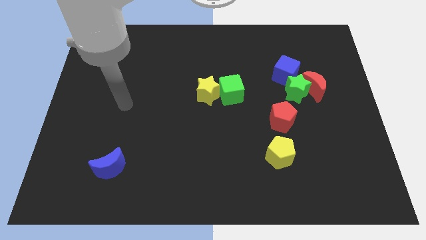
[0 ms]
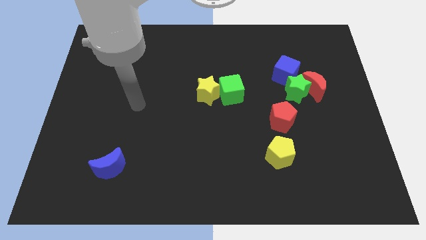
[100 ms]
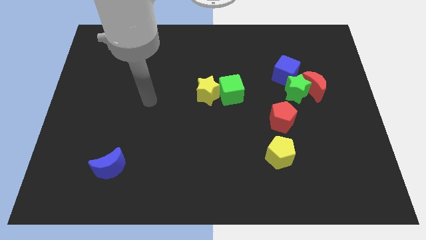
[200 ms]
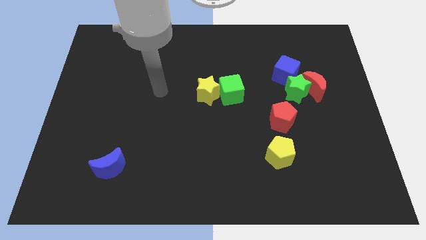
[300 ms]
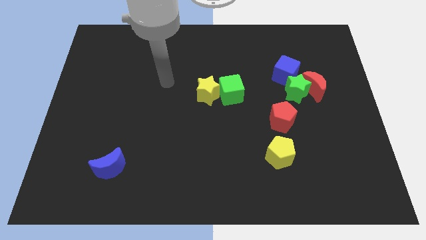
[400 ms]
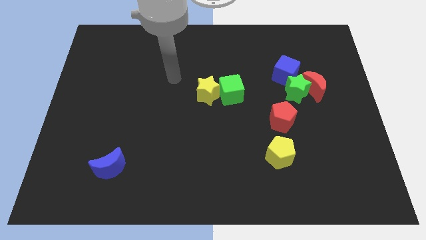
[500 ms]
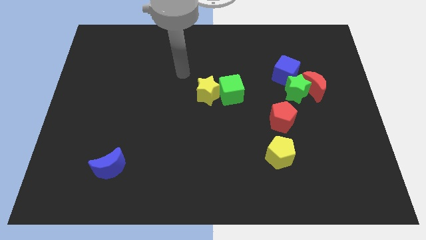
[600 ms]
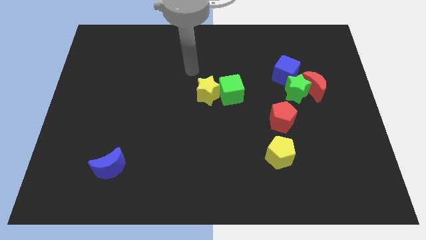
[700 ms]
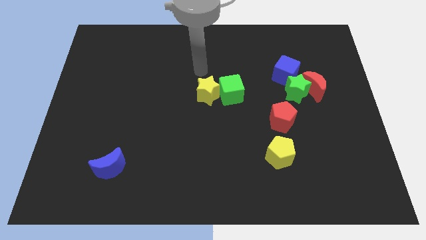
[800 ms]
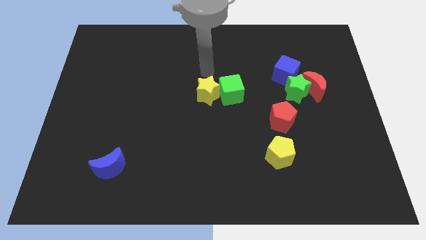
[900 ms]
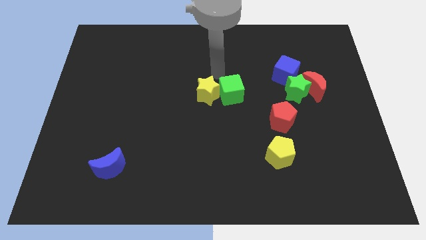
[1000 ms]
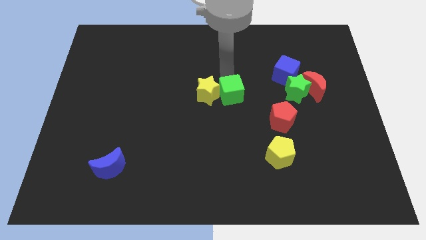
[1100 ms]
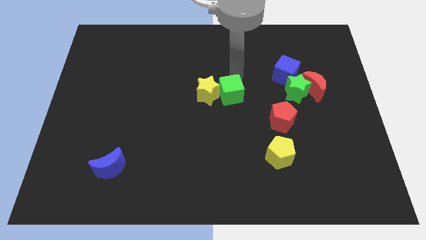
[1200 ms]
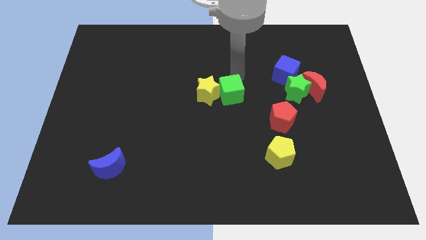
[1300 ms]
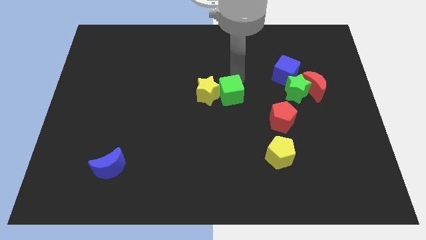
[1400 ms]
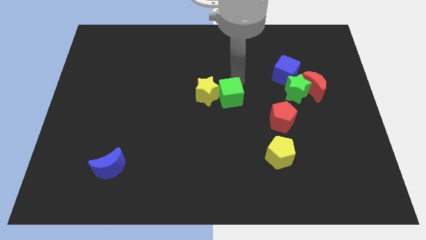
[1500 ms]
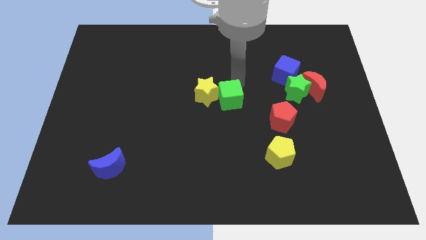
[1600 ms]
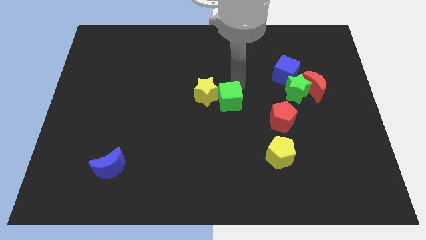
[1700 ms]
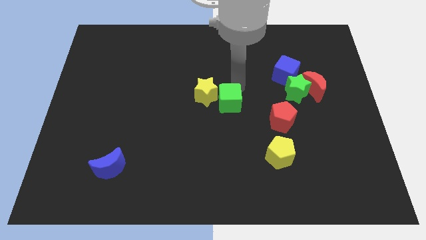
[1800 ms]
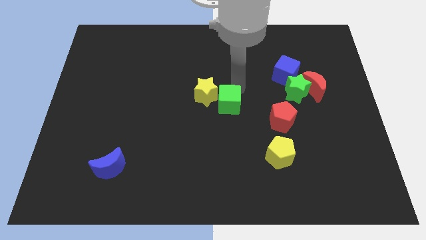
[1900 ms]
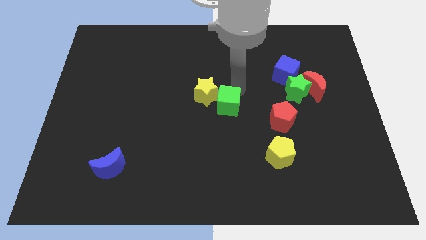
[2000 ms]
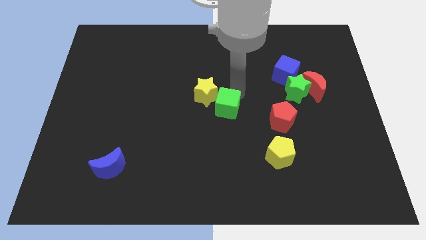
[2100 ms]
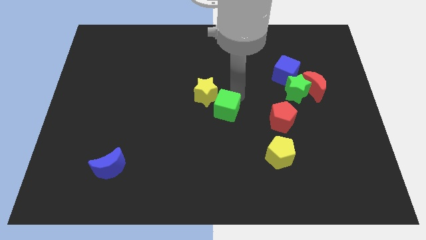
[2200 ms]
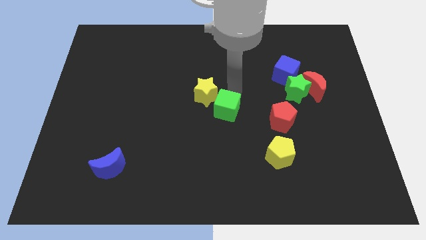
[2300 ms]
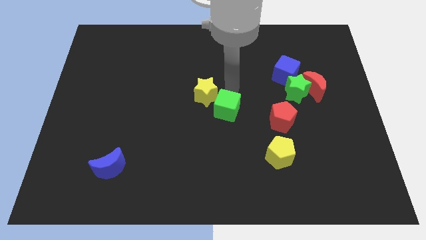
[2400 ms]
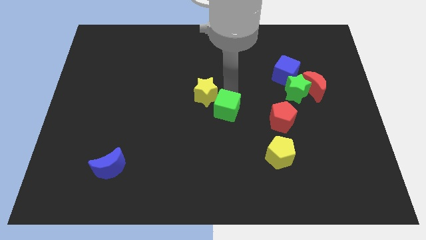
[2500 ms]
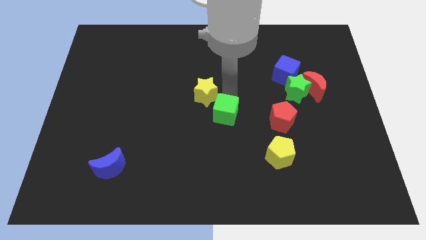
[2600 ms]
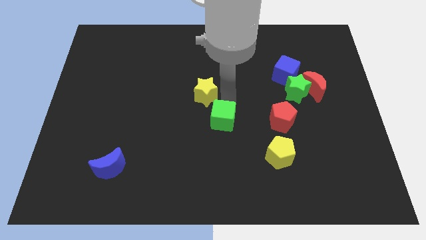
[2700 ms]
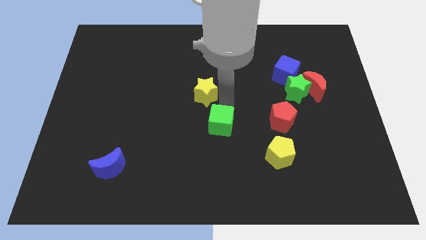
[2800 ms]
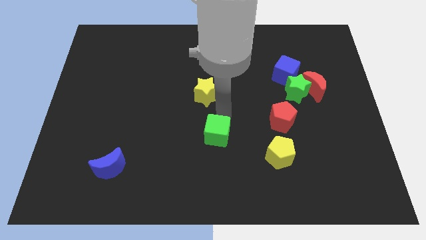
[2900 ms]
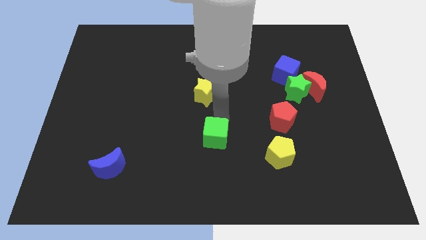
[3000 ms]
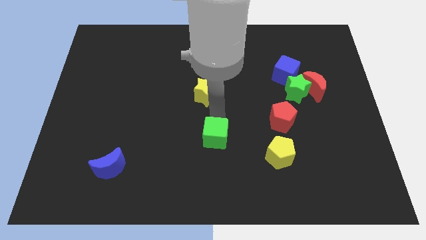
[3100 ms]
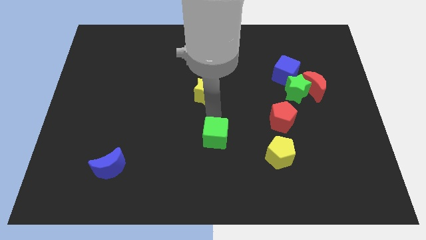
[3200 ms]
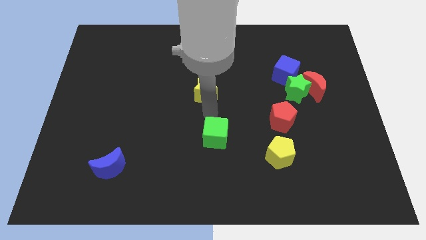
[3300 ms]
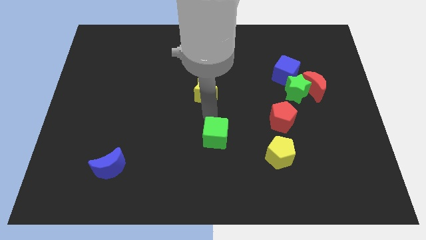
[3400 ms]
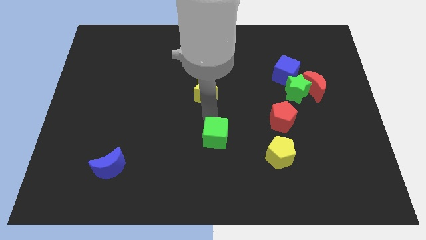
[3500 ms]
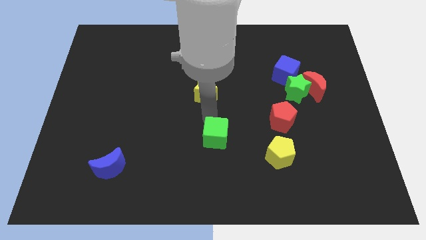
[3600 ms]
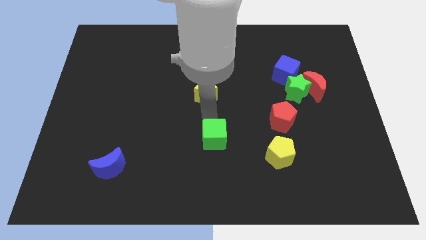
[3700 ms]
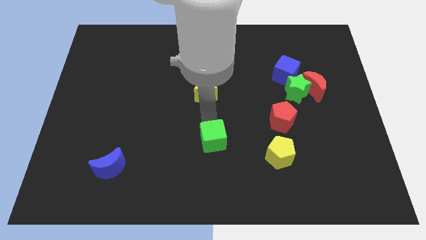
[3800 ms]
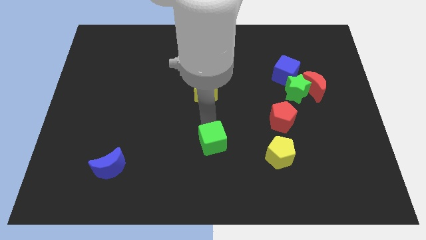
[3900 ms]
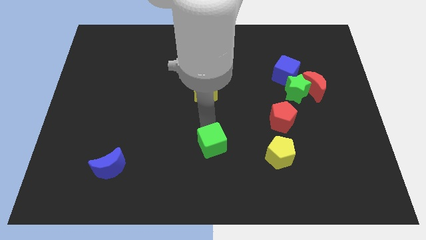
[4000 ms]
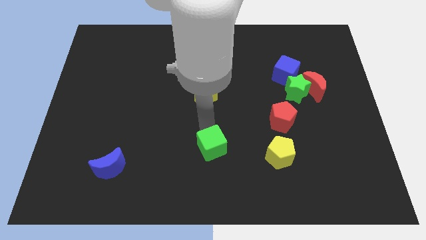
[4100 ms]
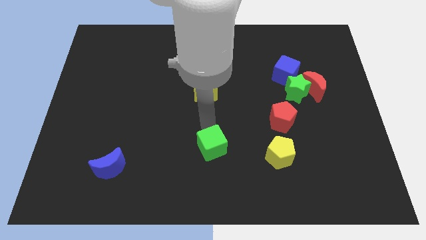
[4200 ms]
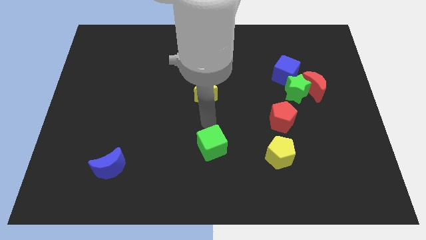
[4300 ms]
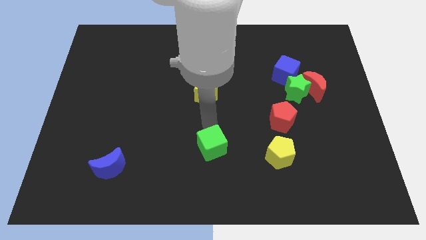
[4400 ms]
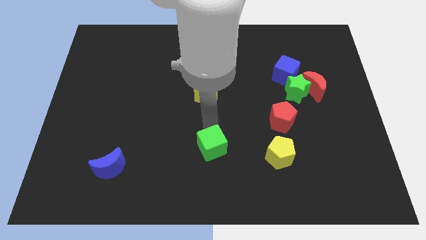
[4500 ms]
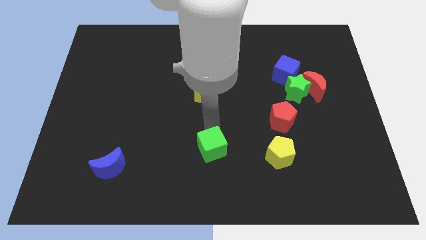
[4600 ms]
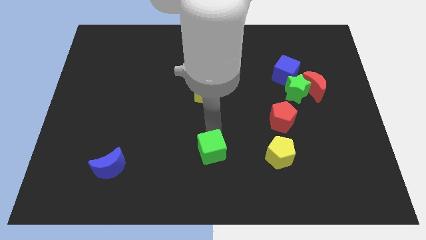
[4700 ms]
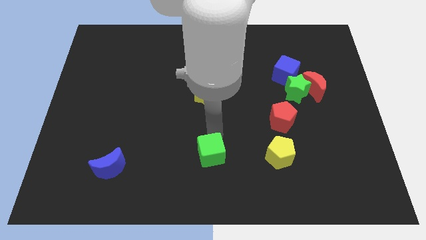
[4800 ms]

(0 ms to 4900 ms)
move the green cube to the bottom side

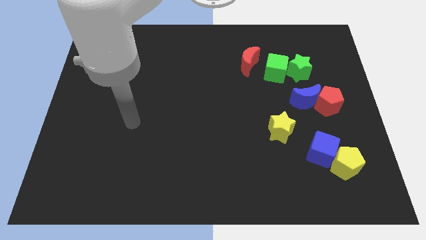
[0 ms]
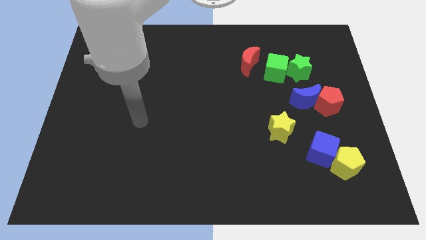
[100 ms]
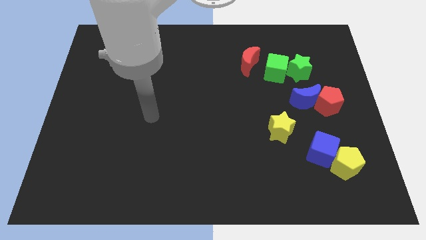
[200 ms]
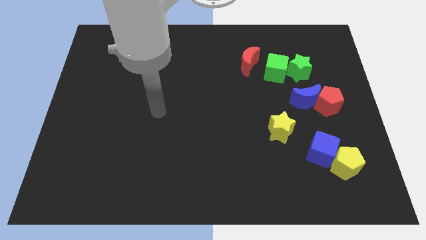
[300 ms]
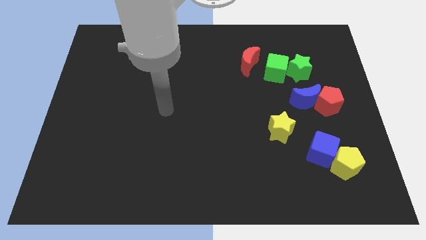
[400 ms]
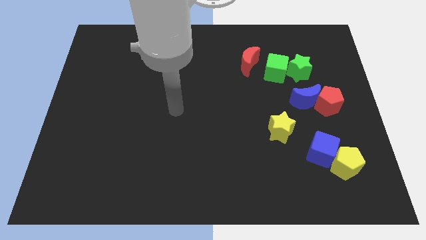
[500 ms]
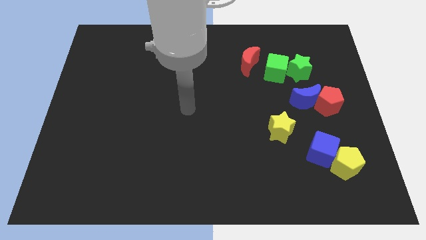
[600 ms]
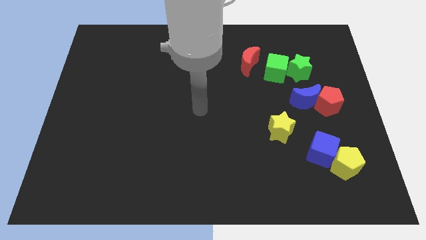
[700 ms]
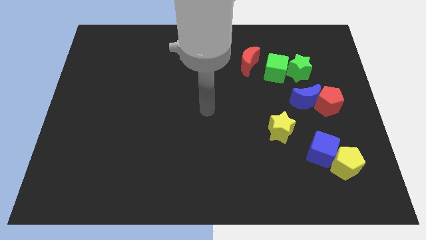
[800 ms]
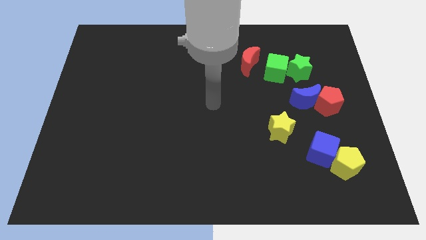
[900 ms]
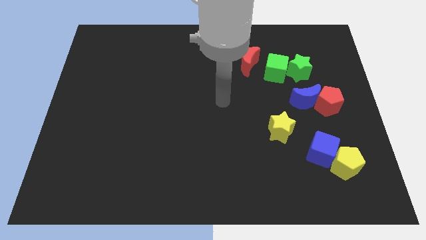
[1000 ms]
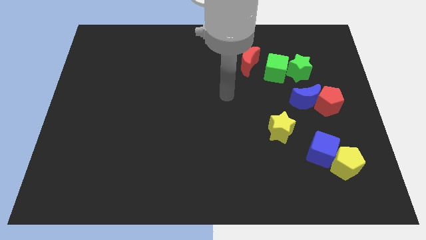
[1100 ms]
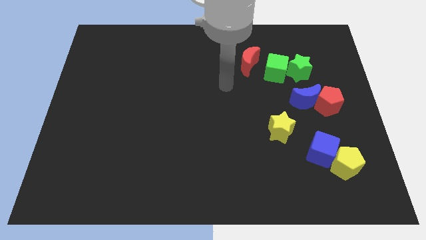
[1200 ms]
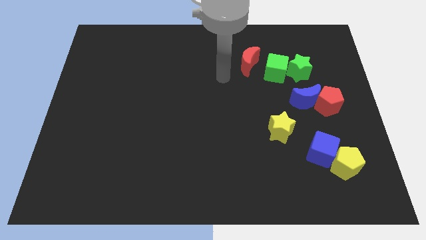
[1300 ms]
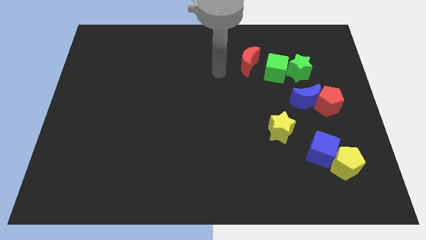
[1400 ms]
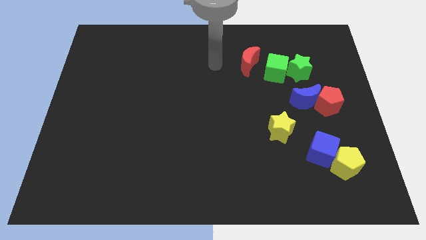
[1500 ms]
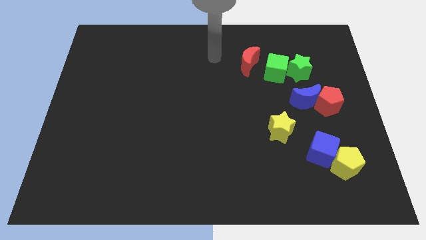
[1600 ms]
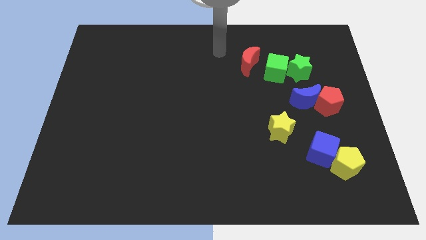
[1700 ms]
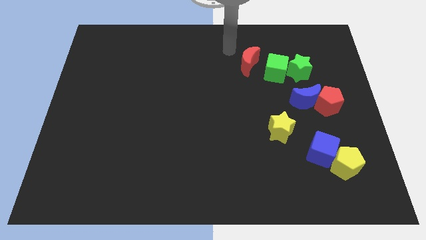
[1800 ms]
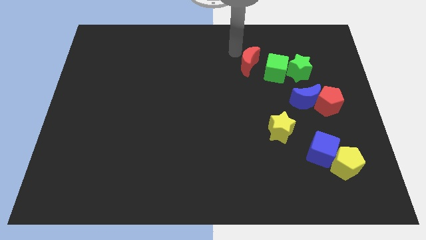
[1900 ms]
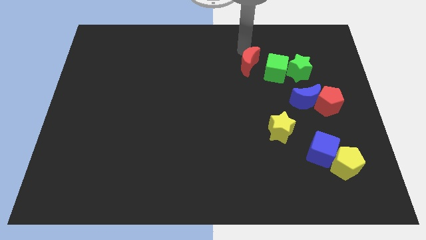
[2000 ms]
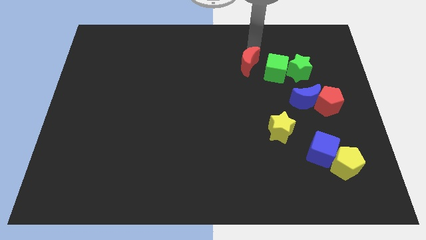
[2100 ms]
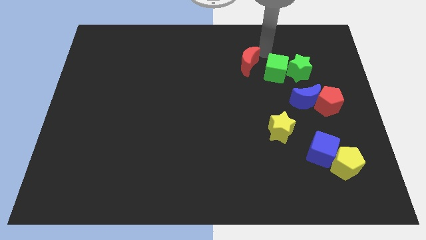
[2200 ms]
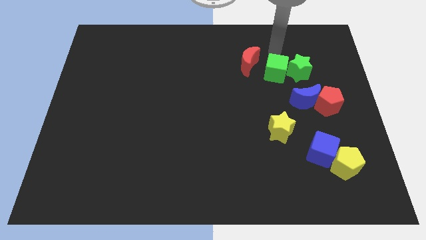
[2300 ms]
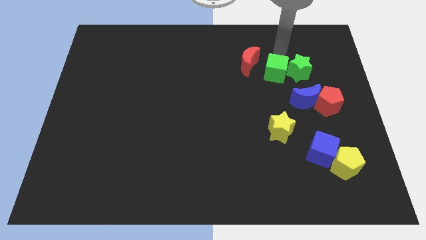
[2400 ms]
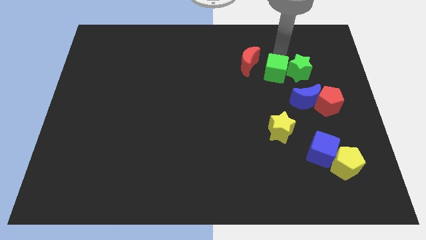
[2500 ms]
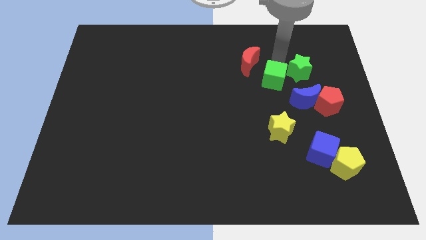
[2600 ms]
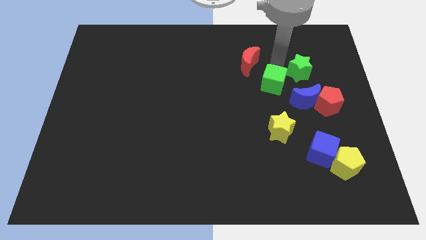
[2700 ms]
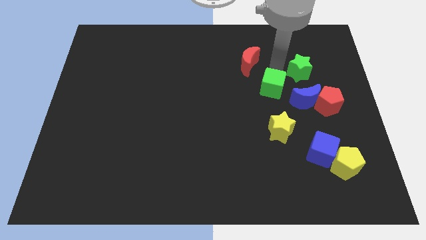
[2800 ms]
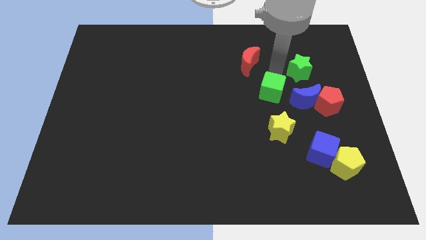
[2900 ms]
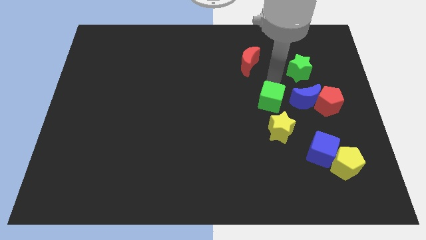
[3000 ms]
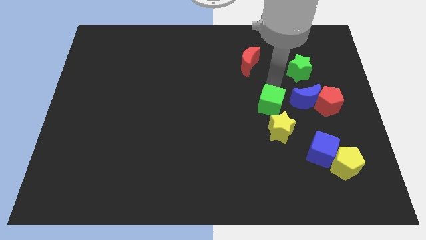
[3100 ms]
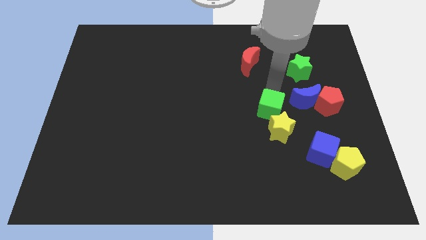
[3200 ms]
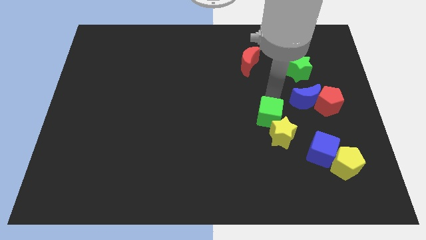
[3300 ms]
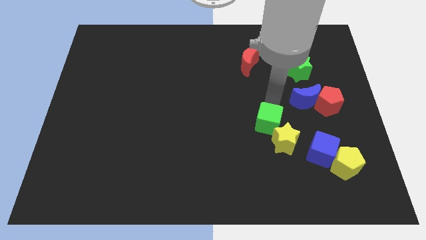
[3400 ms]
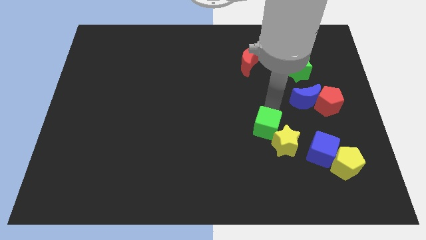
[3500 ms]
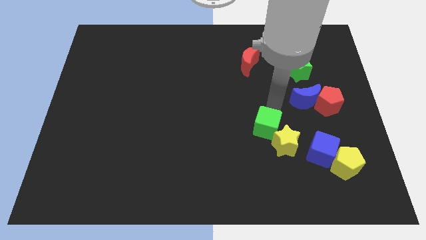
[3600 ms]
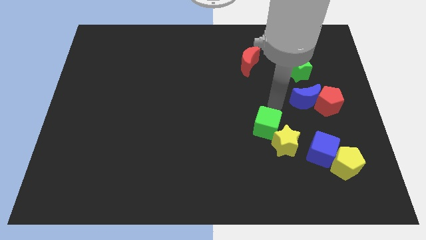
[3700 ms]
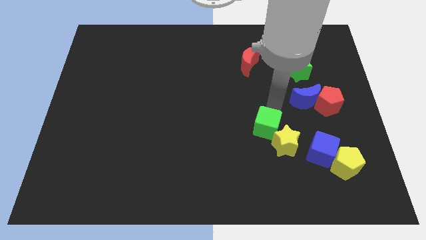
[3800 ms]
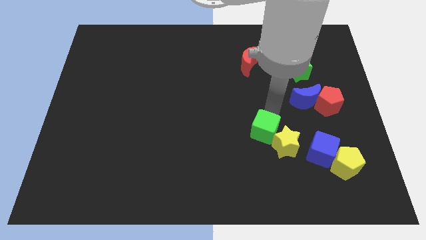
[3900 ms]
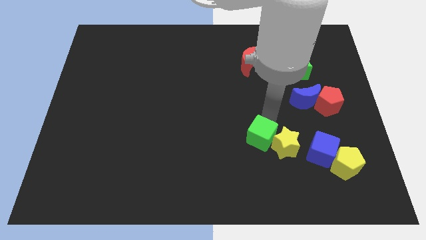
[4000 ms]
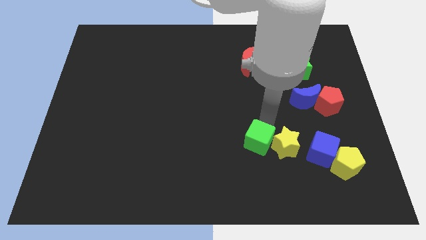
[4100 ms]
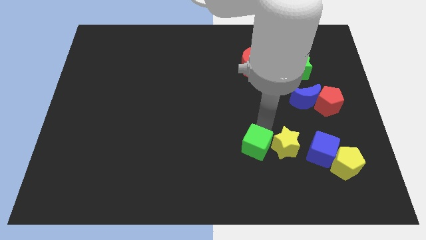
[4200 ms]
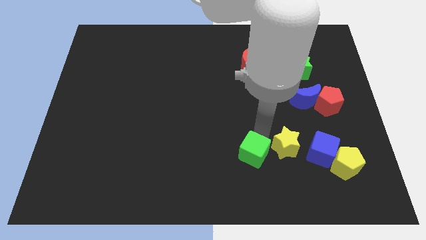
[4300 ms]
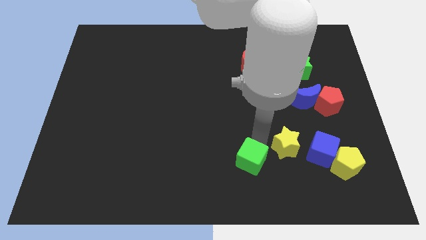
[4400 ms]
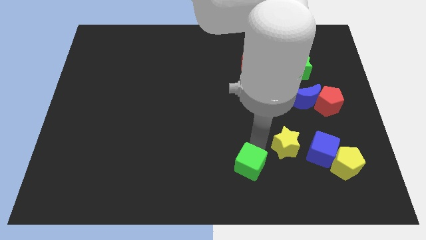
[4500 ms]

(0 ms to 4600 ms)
push the green cube to the bottom side
